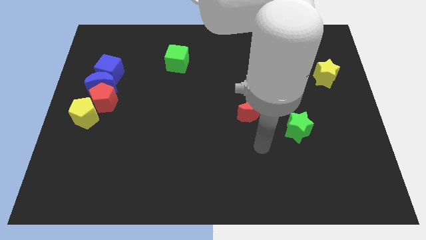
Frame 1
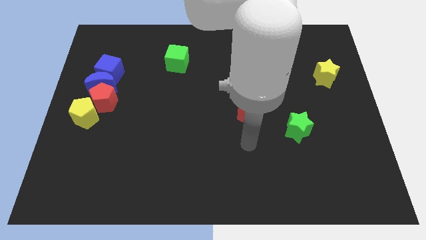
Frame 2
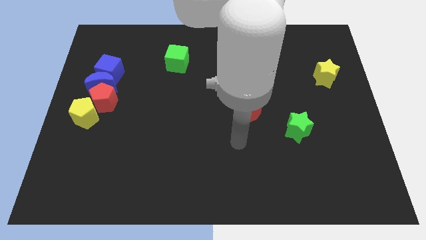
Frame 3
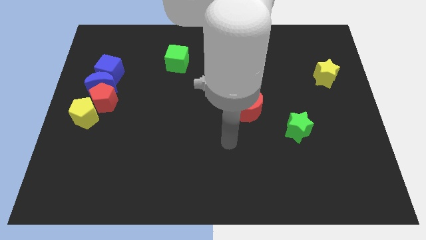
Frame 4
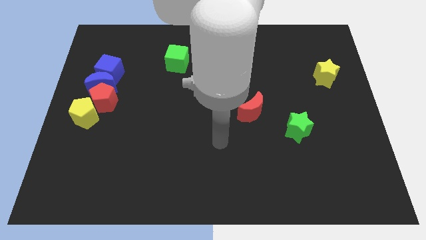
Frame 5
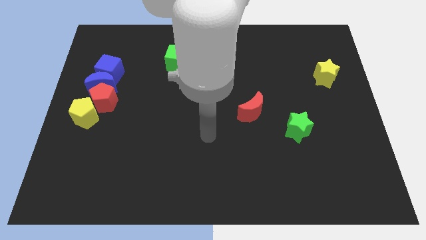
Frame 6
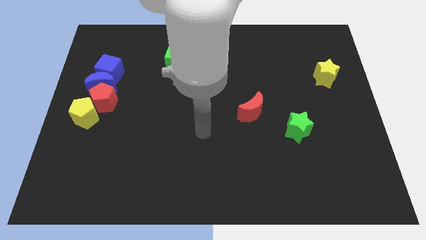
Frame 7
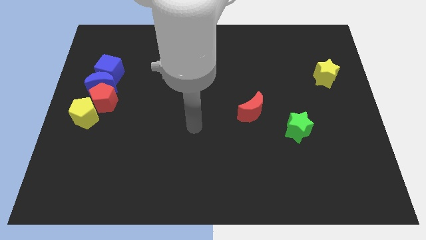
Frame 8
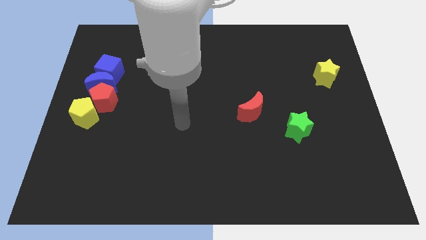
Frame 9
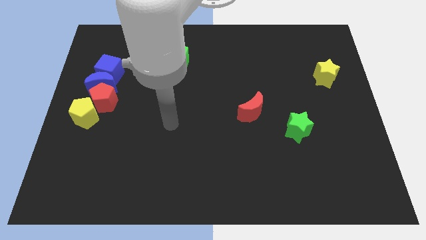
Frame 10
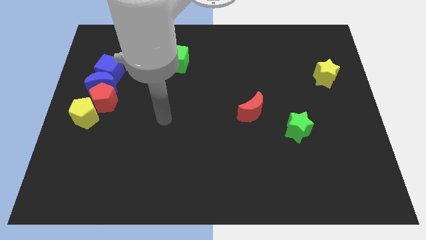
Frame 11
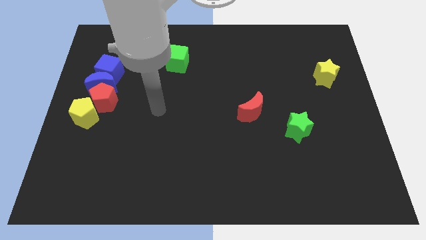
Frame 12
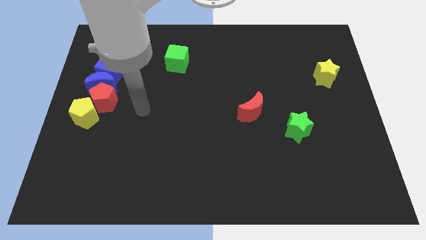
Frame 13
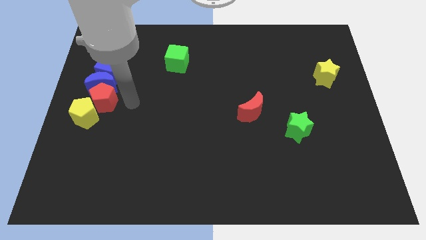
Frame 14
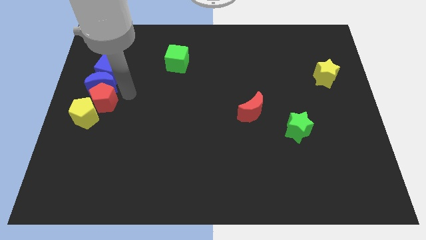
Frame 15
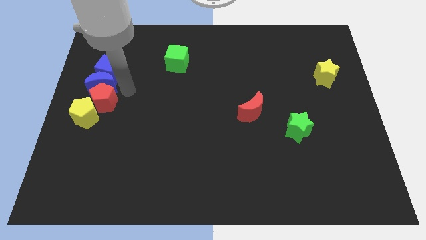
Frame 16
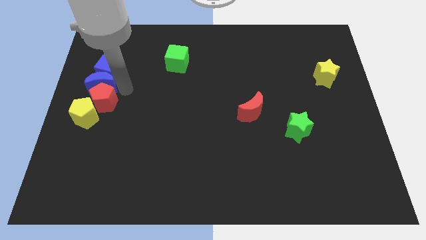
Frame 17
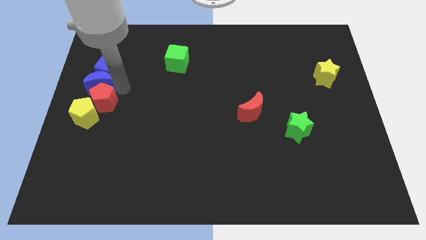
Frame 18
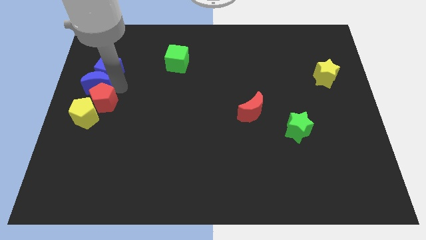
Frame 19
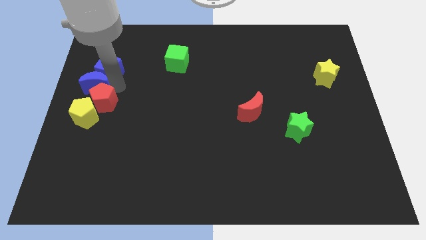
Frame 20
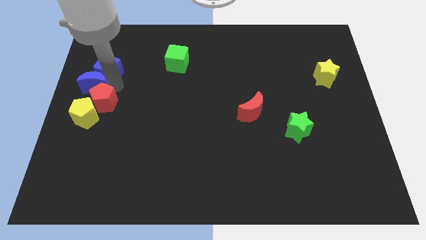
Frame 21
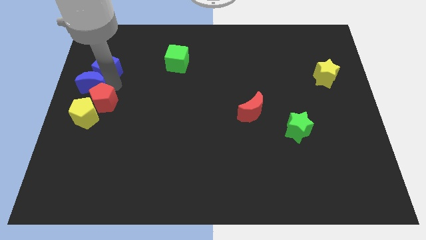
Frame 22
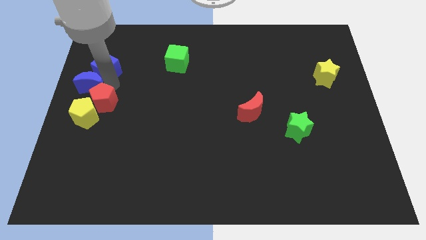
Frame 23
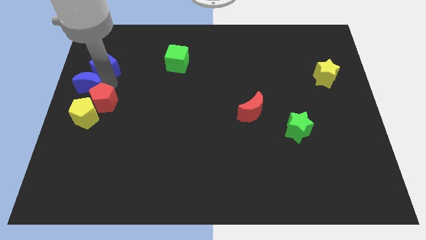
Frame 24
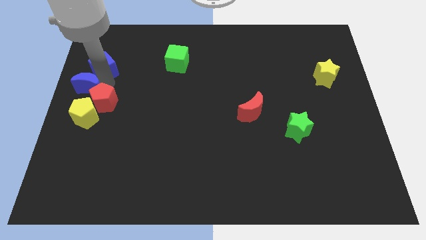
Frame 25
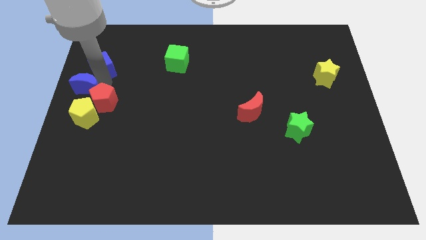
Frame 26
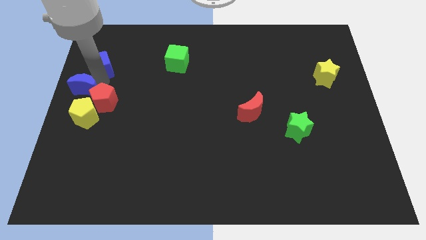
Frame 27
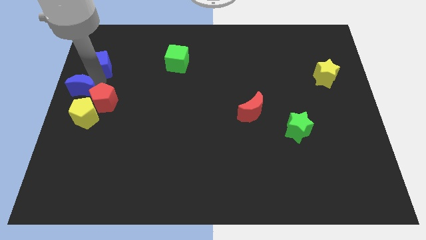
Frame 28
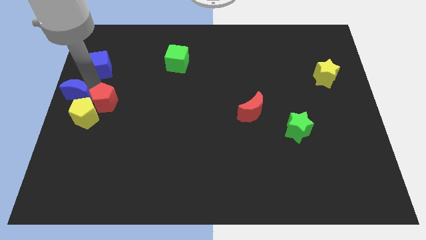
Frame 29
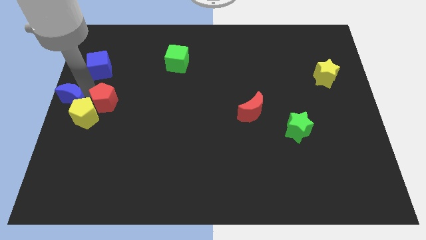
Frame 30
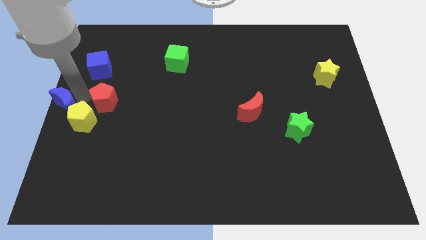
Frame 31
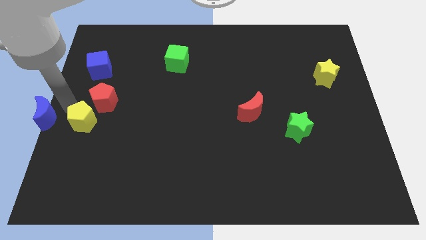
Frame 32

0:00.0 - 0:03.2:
separate the blue moon from the clump

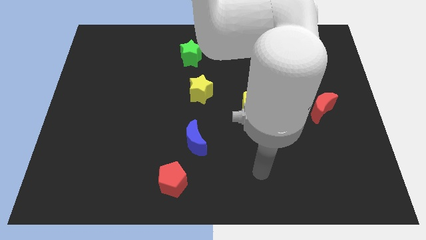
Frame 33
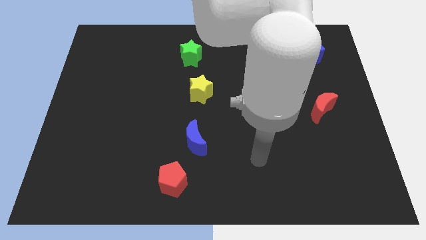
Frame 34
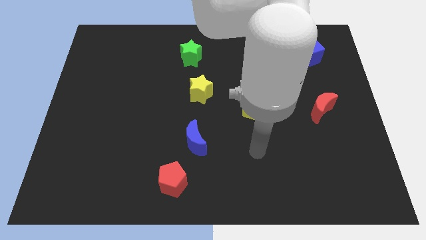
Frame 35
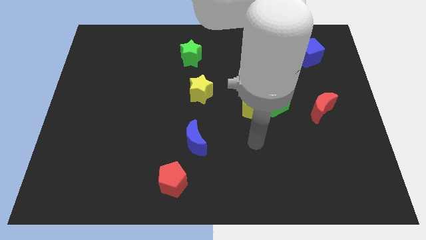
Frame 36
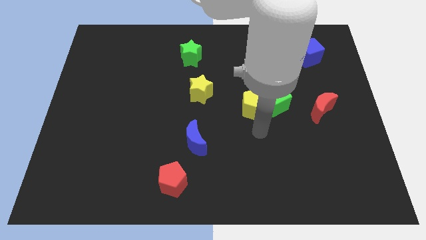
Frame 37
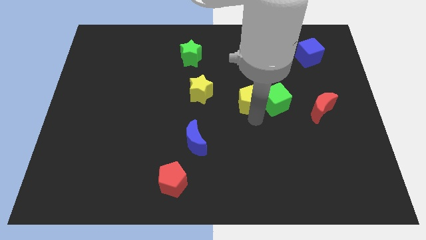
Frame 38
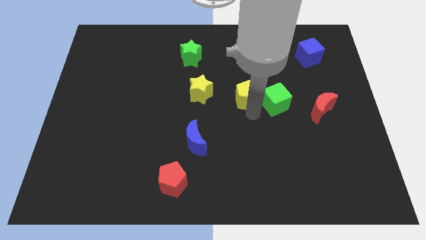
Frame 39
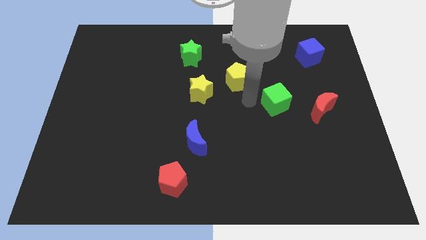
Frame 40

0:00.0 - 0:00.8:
pull the green cube apart from the yellow pentagon

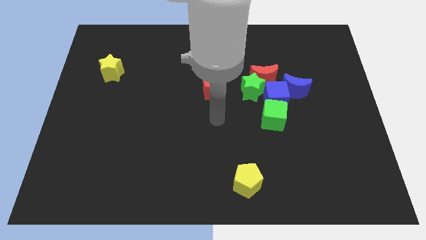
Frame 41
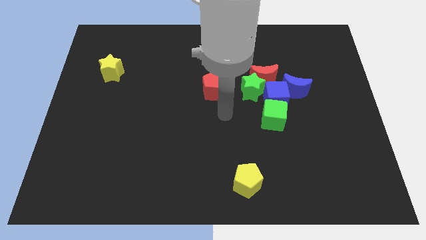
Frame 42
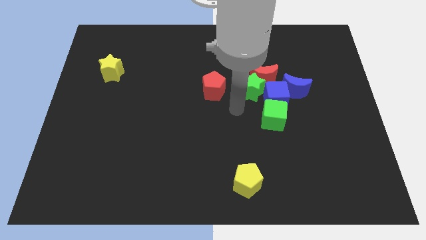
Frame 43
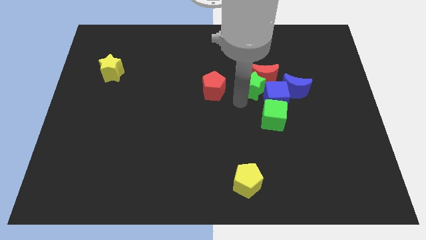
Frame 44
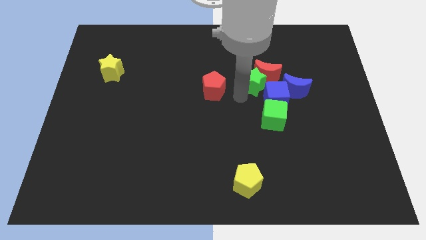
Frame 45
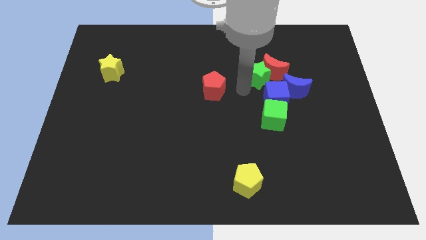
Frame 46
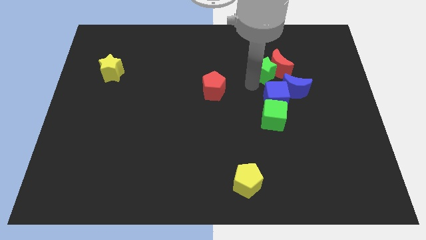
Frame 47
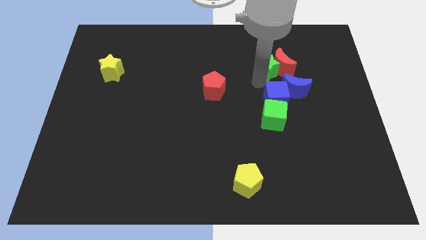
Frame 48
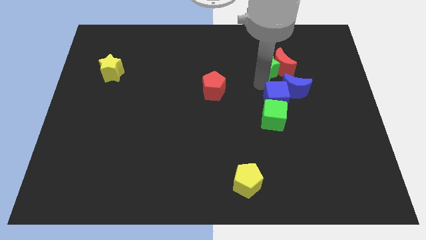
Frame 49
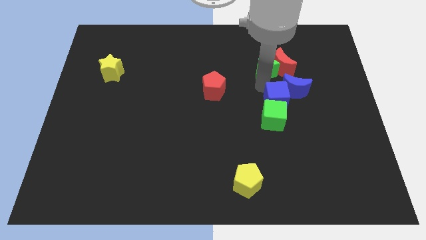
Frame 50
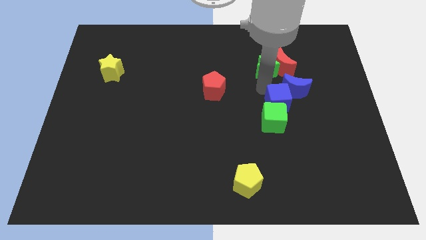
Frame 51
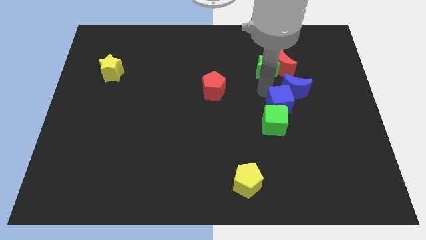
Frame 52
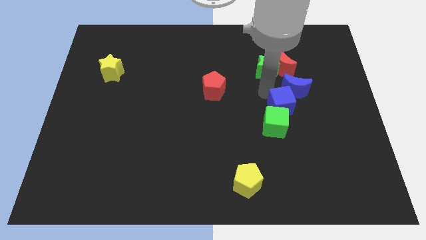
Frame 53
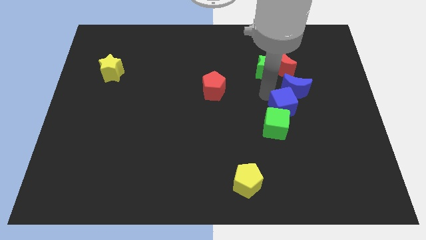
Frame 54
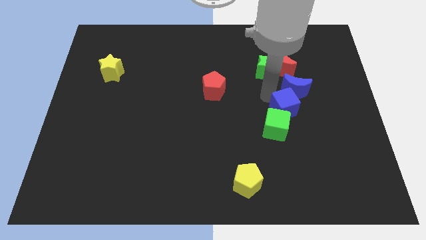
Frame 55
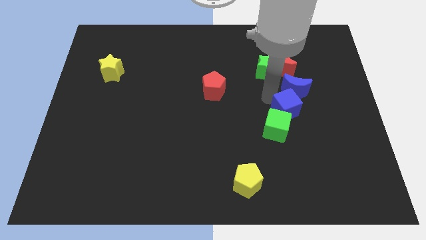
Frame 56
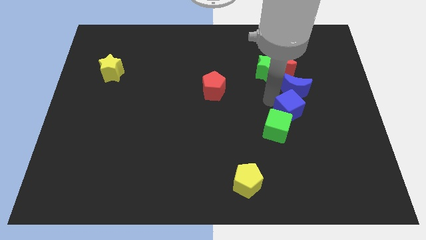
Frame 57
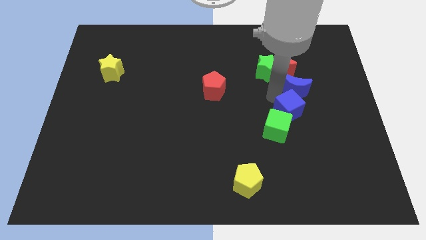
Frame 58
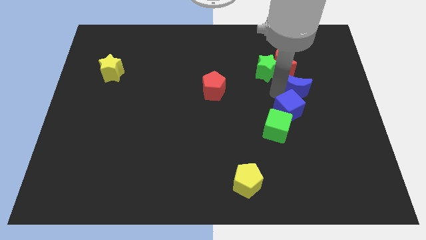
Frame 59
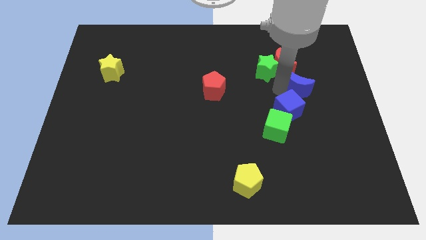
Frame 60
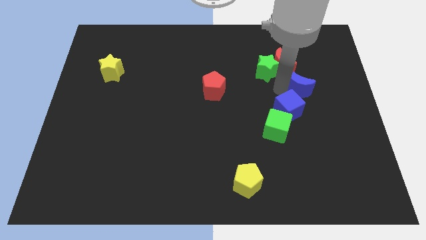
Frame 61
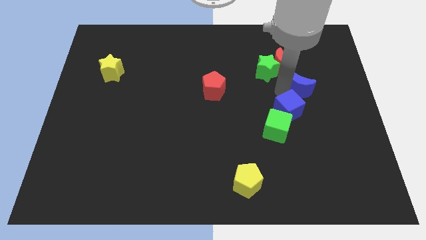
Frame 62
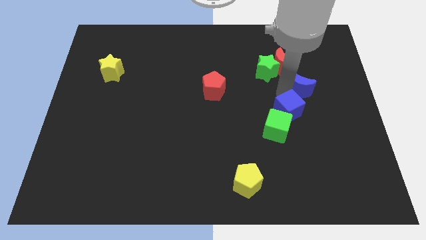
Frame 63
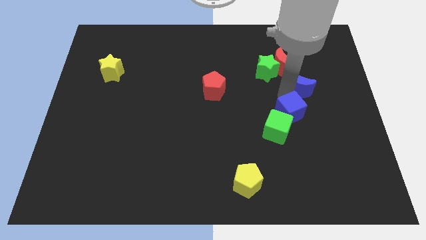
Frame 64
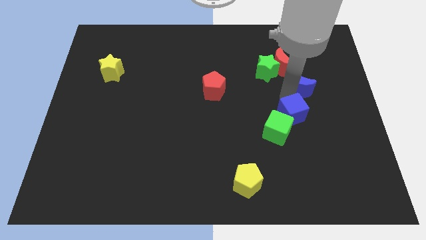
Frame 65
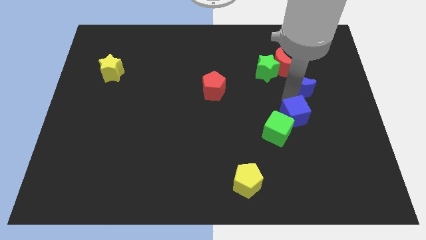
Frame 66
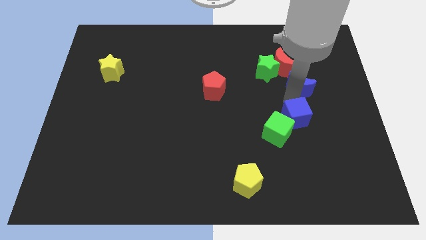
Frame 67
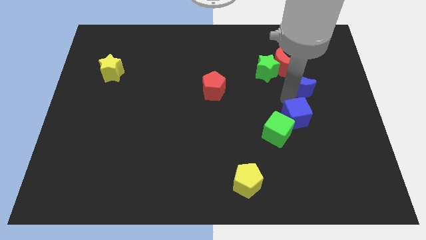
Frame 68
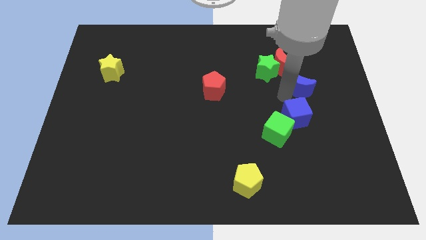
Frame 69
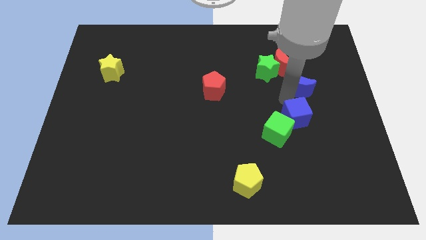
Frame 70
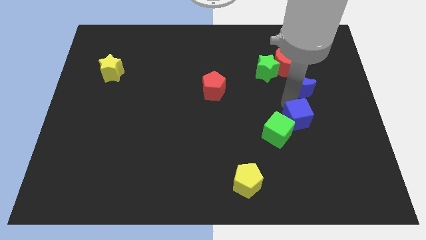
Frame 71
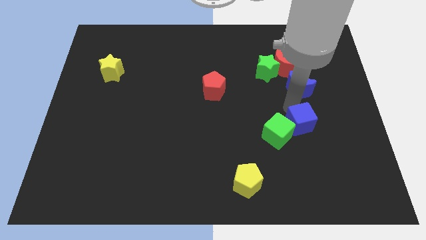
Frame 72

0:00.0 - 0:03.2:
separate the blue cube from the clump

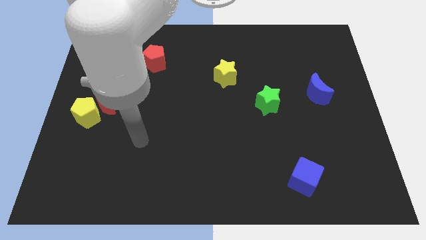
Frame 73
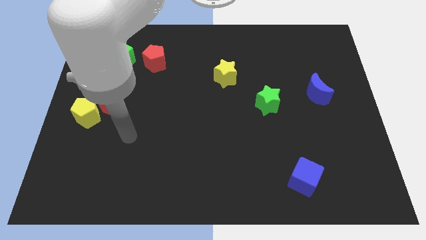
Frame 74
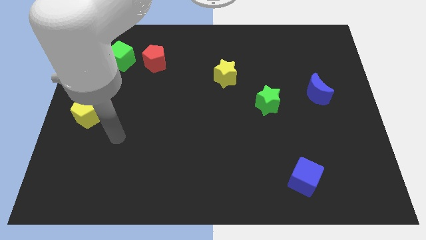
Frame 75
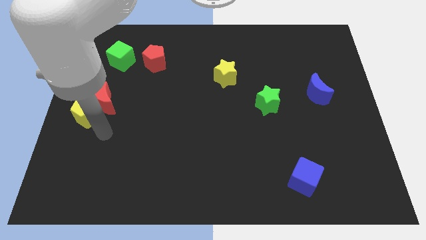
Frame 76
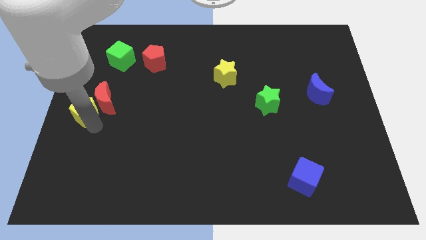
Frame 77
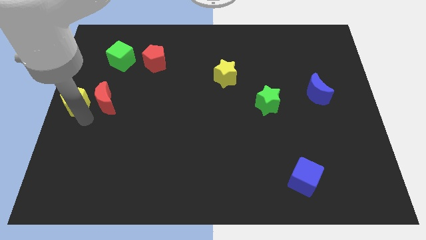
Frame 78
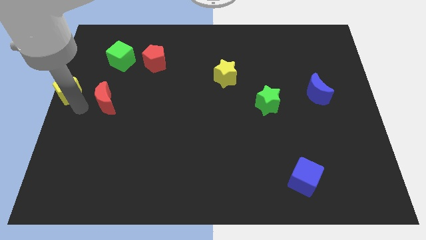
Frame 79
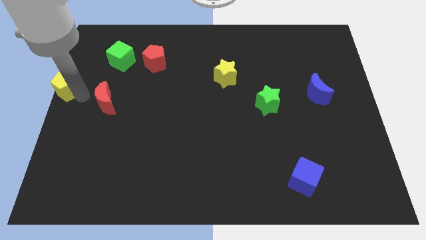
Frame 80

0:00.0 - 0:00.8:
pull the red moon apart from the yellow pentagon

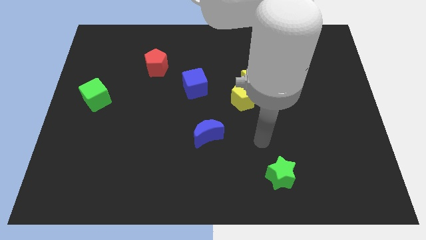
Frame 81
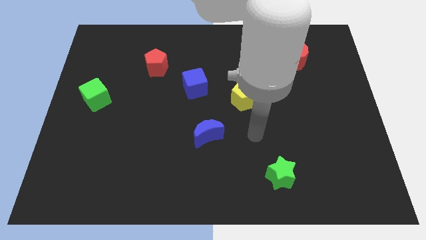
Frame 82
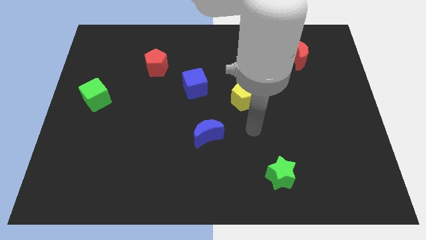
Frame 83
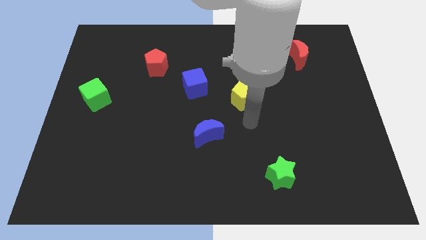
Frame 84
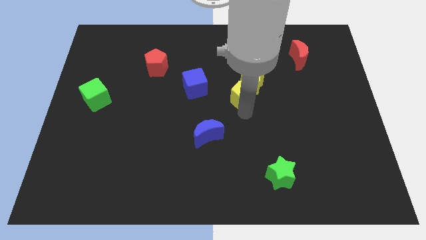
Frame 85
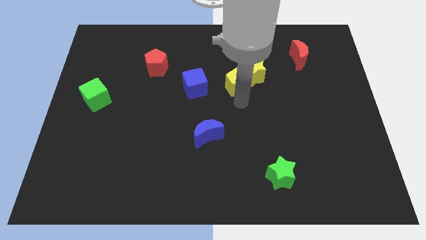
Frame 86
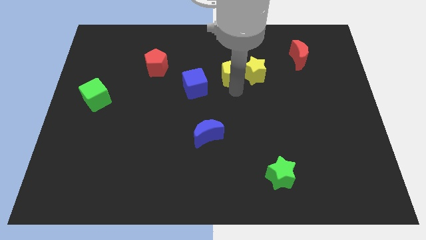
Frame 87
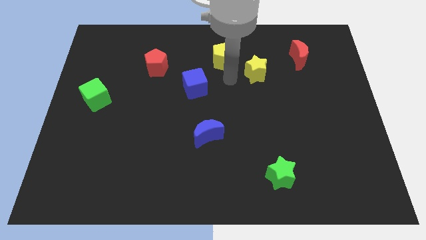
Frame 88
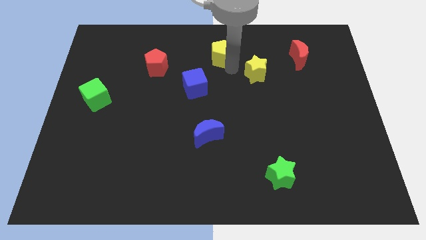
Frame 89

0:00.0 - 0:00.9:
move the yellow star away from the yellow pentagon

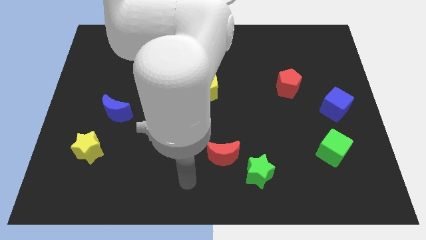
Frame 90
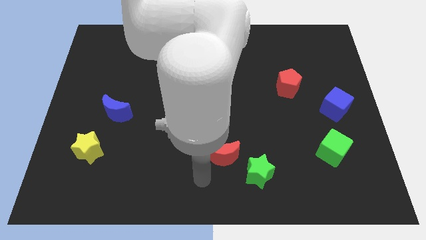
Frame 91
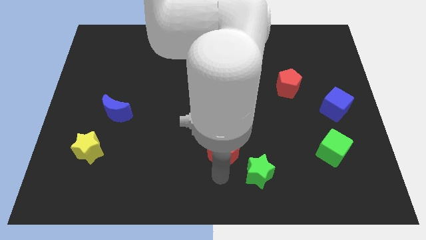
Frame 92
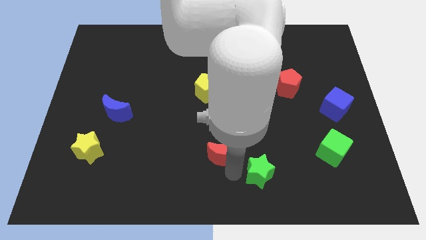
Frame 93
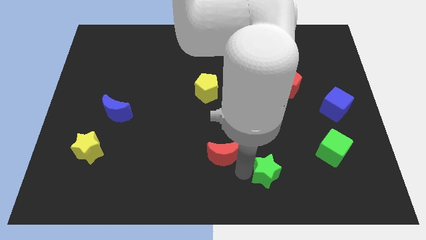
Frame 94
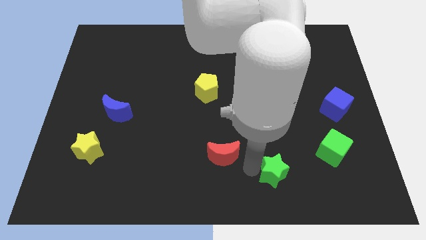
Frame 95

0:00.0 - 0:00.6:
pull the red moon apart from the green star
